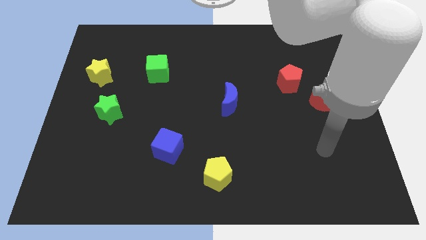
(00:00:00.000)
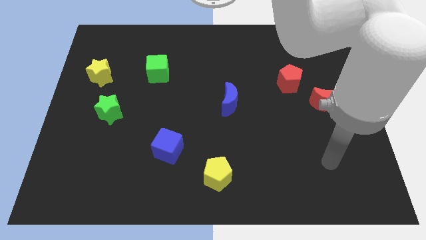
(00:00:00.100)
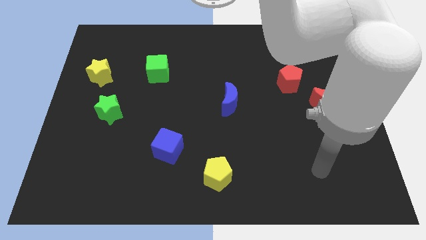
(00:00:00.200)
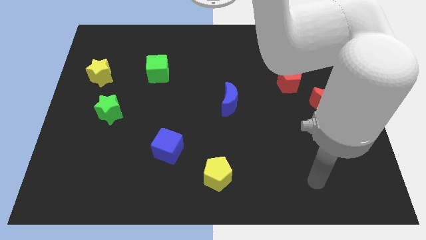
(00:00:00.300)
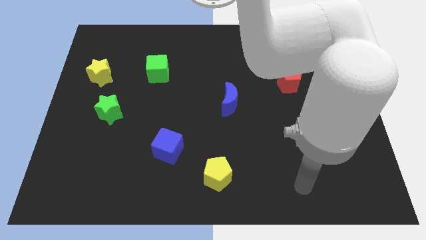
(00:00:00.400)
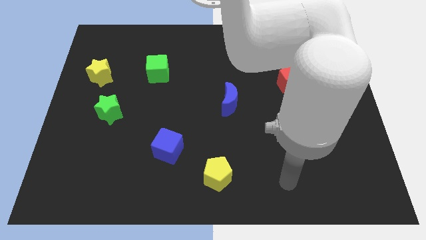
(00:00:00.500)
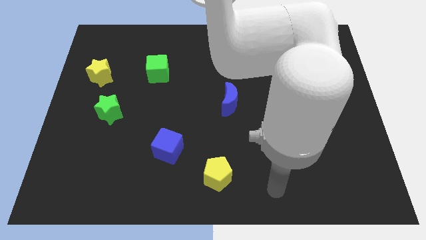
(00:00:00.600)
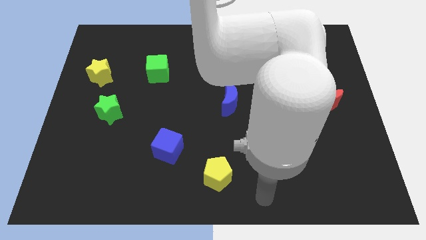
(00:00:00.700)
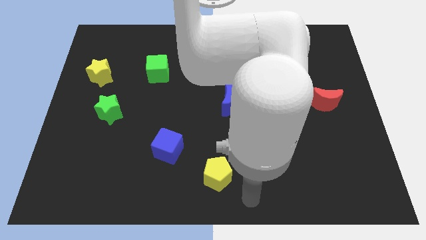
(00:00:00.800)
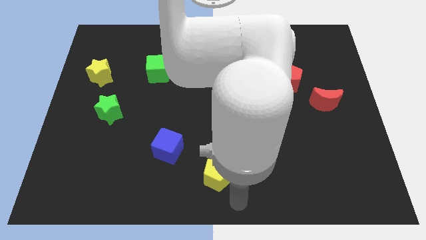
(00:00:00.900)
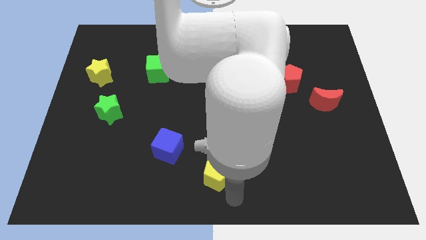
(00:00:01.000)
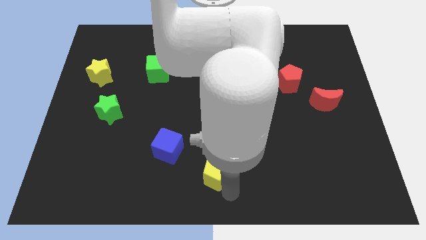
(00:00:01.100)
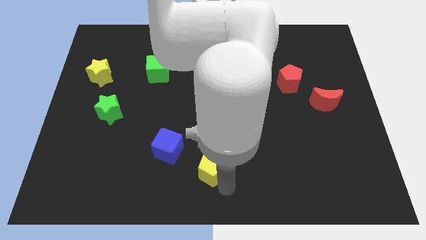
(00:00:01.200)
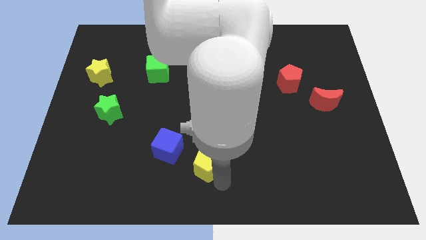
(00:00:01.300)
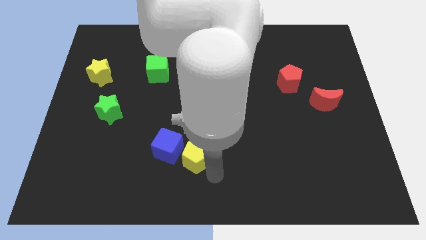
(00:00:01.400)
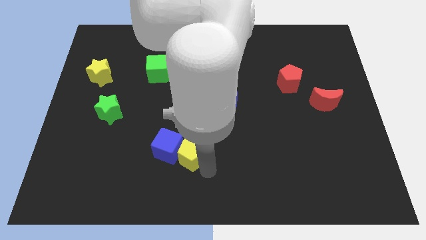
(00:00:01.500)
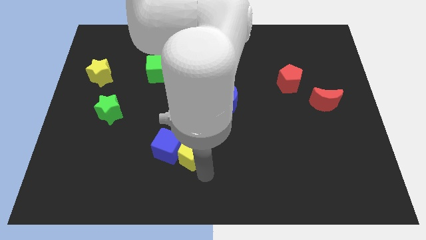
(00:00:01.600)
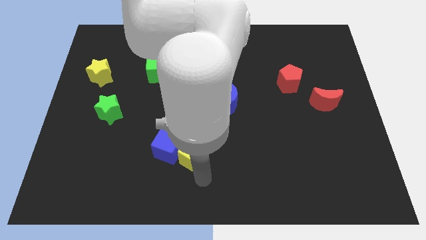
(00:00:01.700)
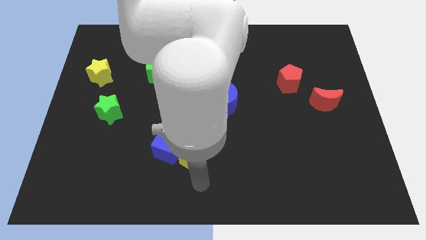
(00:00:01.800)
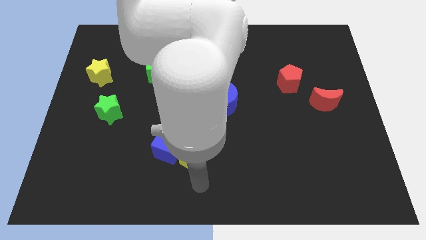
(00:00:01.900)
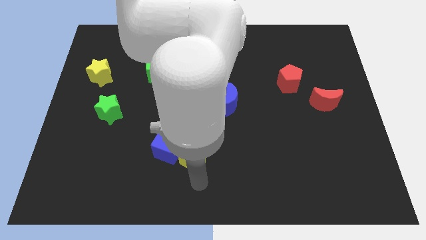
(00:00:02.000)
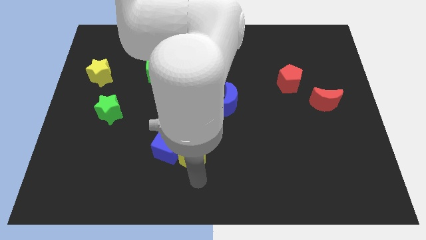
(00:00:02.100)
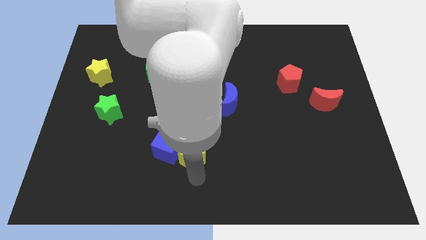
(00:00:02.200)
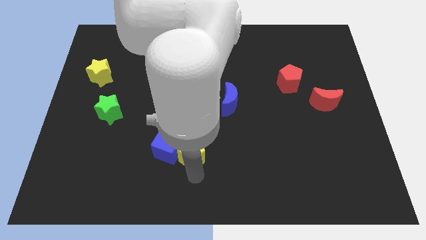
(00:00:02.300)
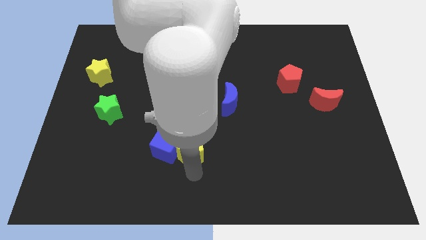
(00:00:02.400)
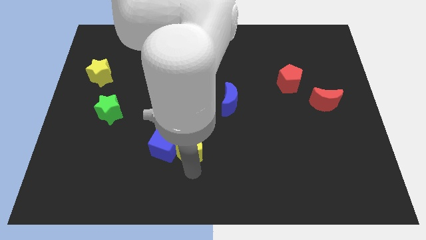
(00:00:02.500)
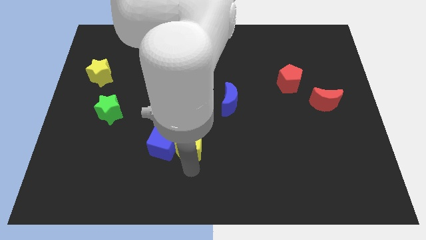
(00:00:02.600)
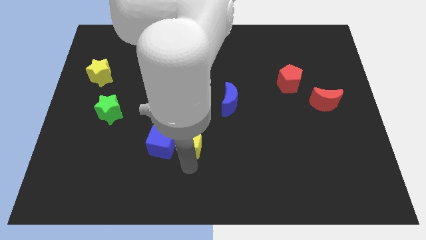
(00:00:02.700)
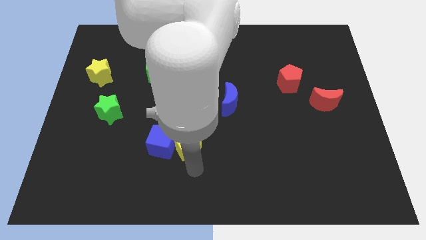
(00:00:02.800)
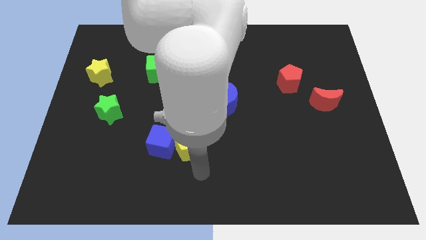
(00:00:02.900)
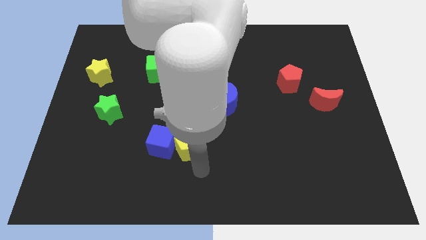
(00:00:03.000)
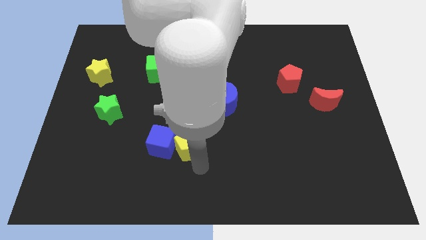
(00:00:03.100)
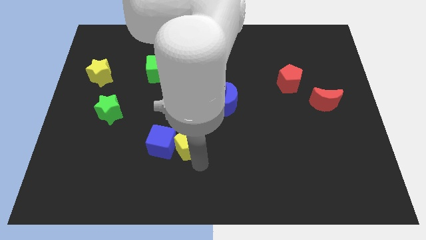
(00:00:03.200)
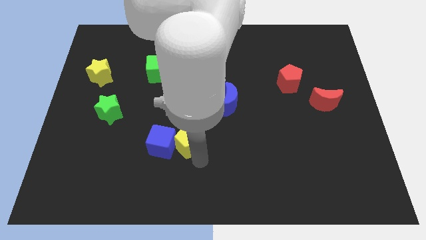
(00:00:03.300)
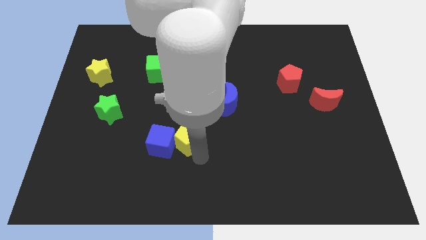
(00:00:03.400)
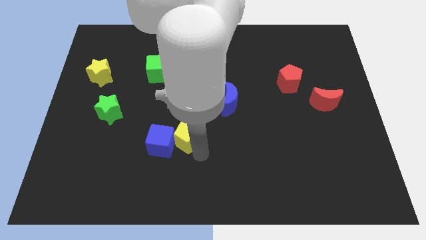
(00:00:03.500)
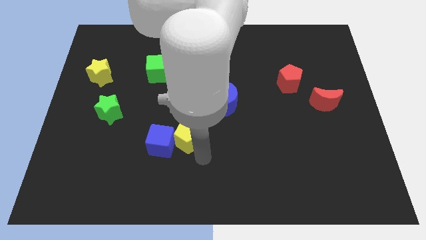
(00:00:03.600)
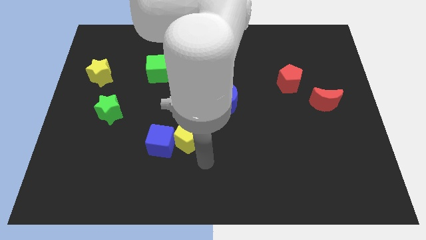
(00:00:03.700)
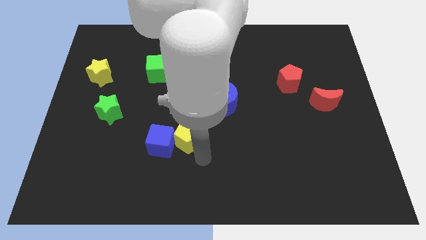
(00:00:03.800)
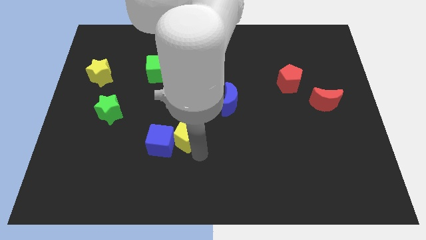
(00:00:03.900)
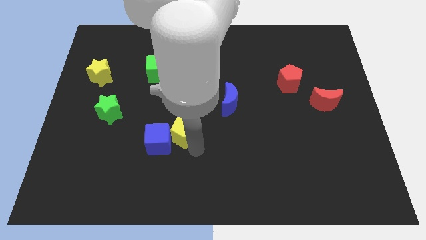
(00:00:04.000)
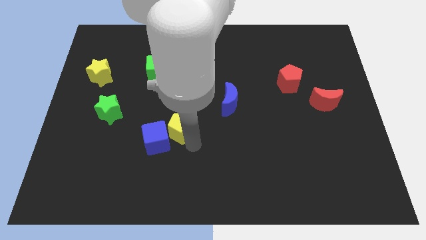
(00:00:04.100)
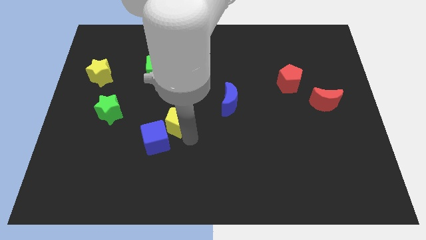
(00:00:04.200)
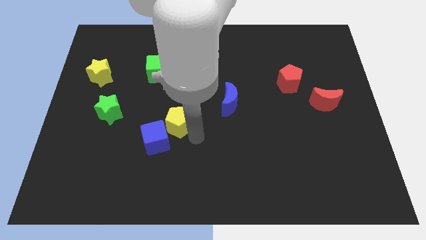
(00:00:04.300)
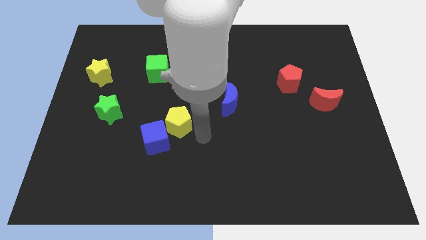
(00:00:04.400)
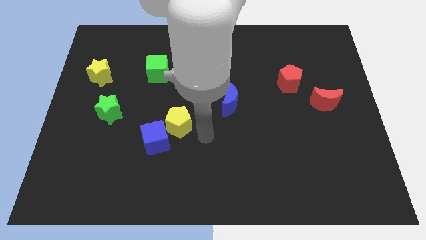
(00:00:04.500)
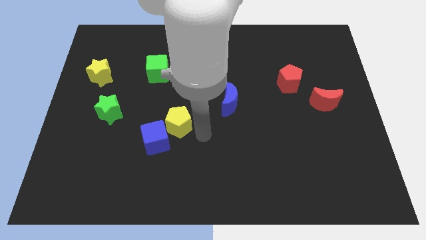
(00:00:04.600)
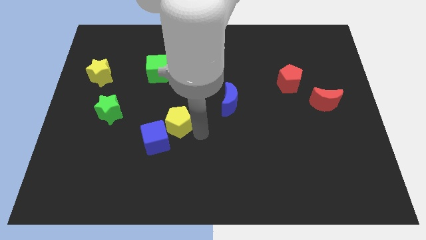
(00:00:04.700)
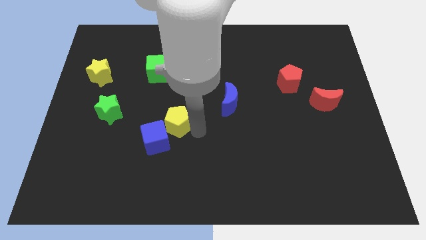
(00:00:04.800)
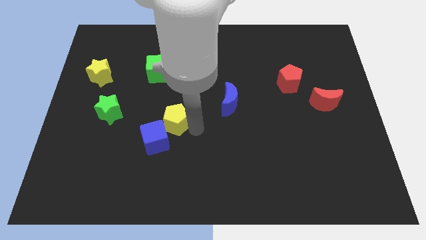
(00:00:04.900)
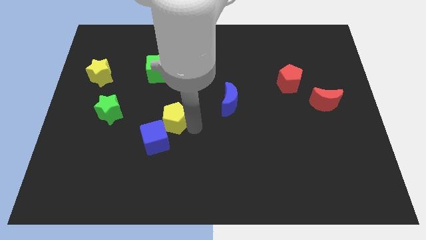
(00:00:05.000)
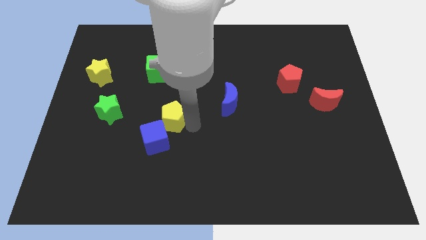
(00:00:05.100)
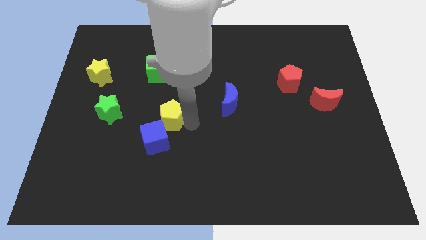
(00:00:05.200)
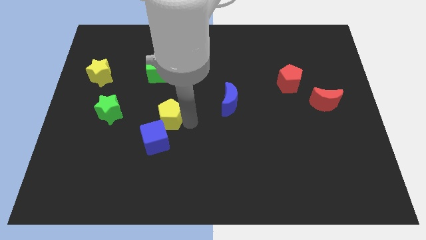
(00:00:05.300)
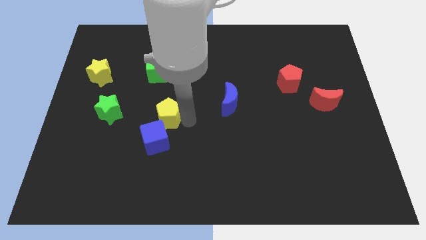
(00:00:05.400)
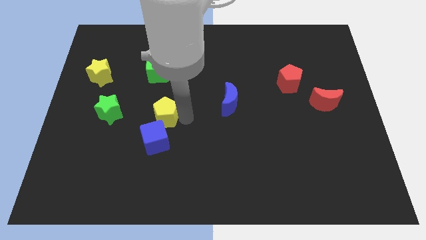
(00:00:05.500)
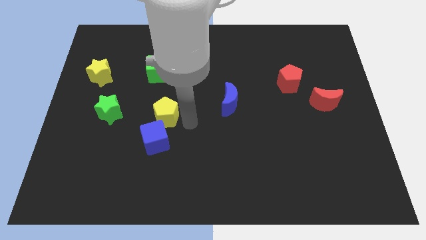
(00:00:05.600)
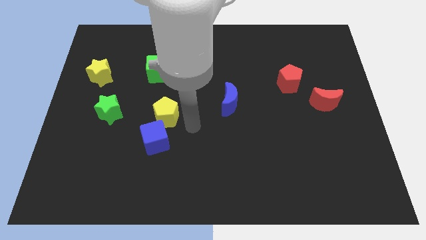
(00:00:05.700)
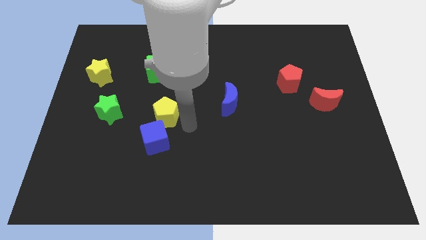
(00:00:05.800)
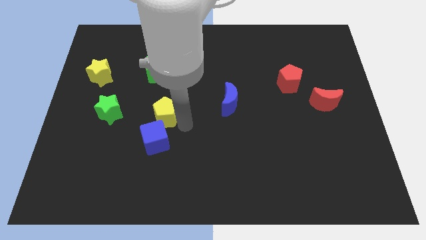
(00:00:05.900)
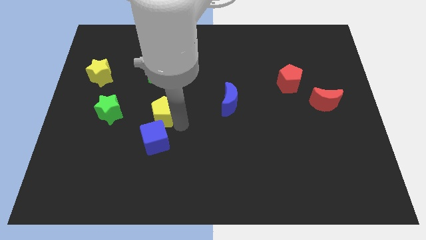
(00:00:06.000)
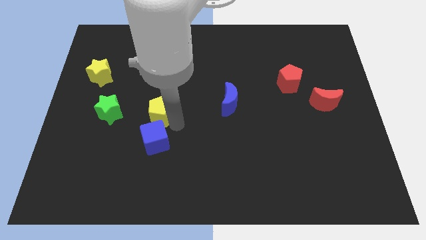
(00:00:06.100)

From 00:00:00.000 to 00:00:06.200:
move the yellow pentagon diagonally up and left

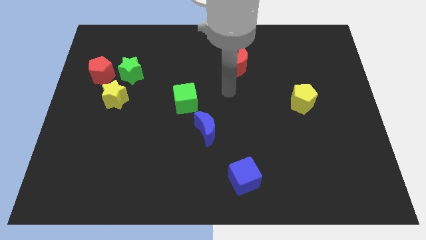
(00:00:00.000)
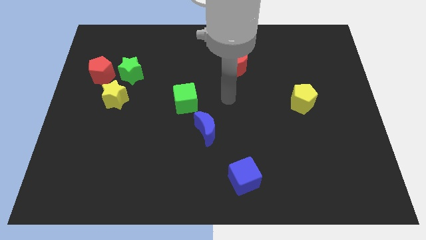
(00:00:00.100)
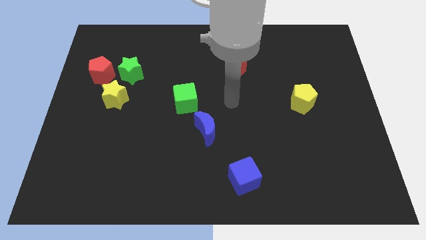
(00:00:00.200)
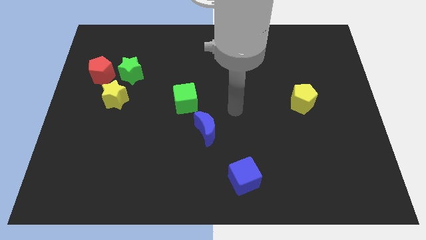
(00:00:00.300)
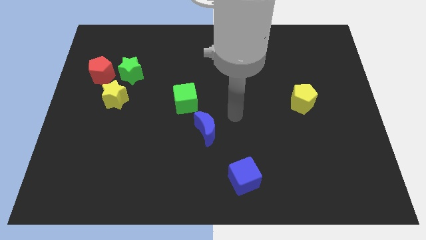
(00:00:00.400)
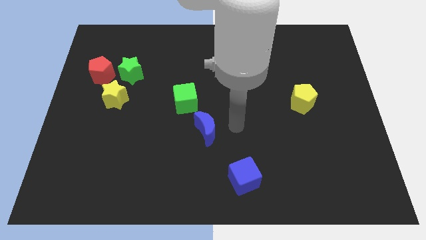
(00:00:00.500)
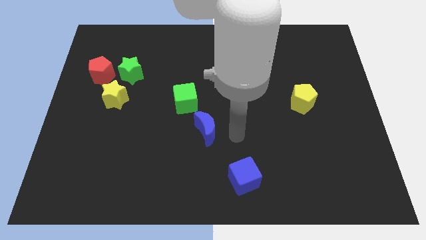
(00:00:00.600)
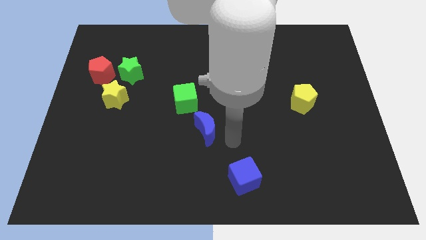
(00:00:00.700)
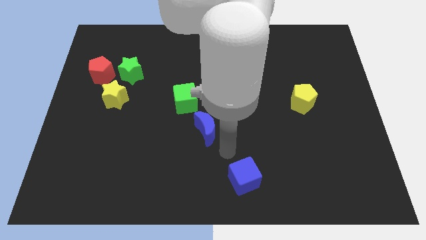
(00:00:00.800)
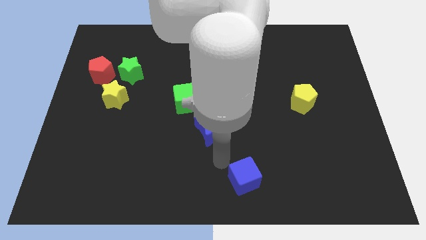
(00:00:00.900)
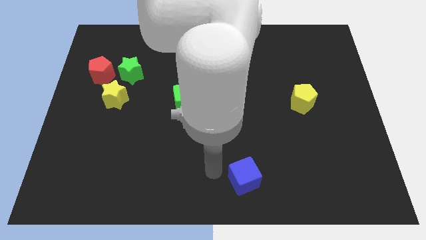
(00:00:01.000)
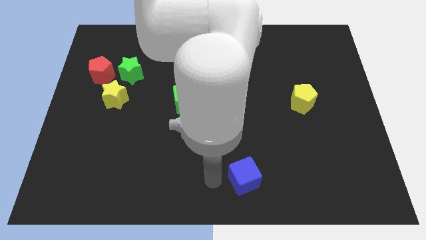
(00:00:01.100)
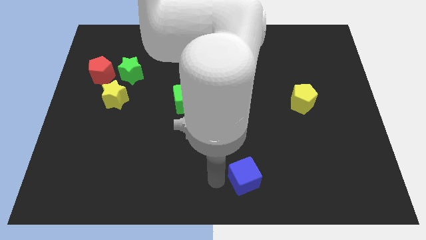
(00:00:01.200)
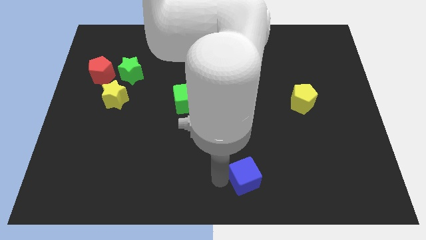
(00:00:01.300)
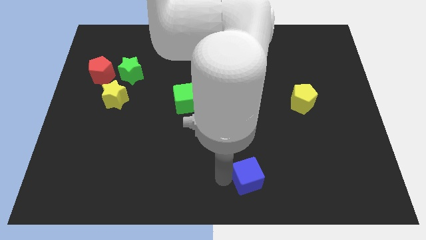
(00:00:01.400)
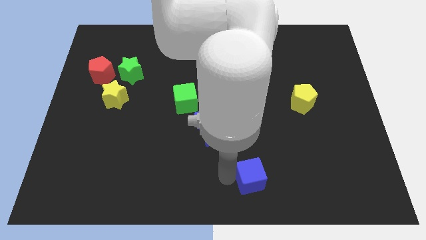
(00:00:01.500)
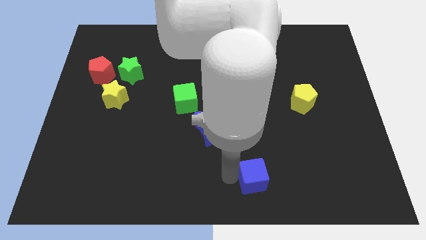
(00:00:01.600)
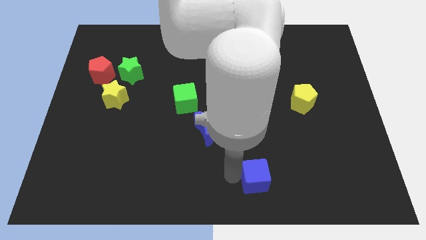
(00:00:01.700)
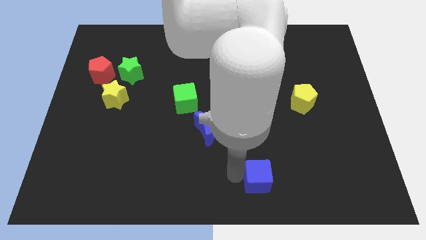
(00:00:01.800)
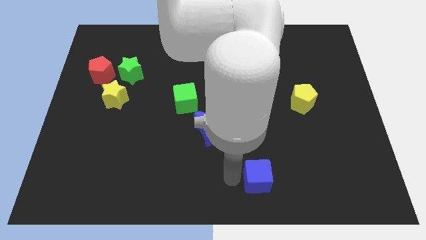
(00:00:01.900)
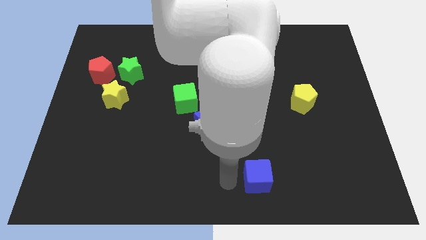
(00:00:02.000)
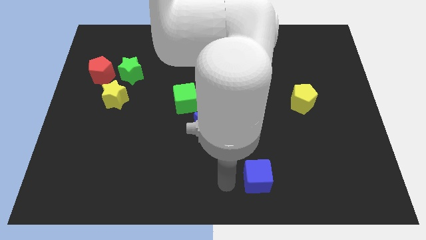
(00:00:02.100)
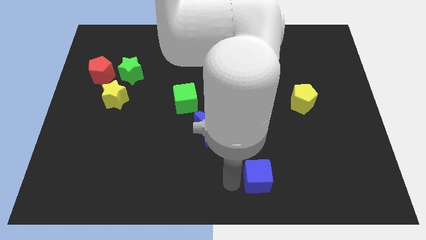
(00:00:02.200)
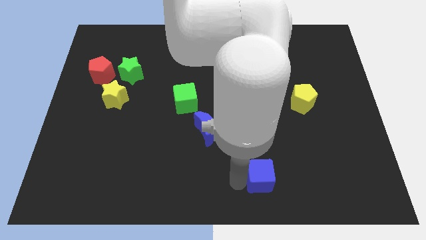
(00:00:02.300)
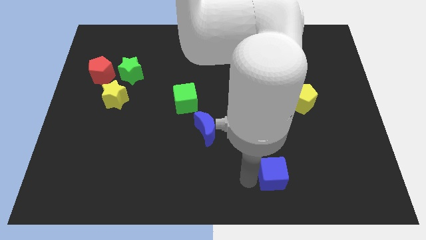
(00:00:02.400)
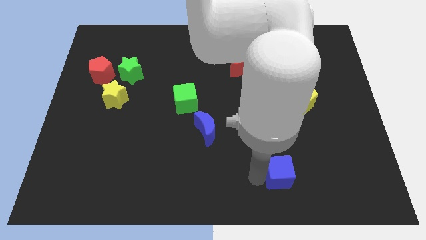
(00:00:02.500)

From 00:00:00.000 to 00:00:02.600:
move the blue cube right a bit
